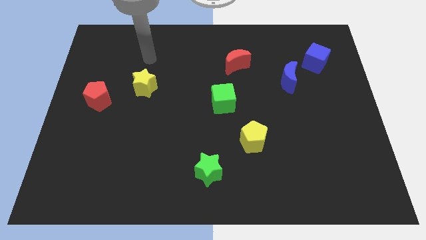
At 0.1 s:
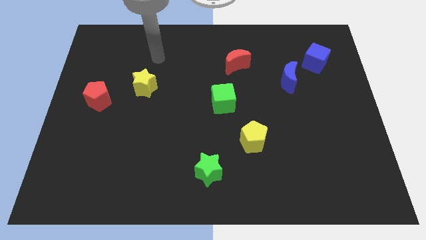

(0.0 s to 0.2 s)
separate the blue moon from the blue cube

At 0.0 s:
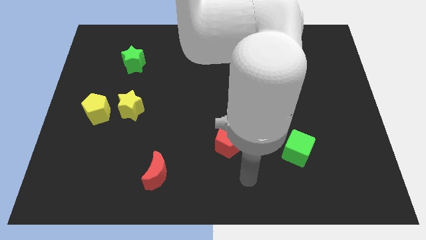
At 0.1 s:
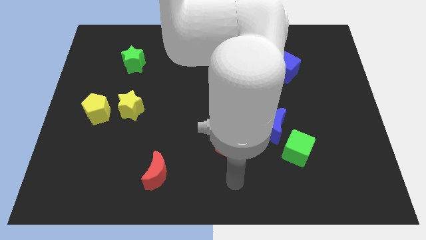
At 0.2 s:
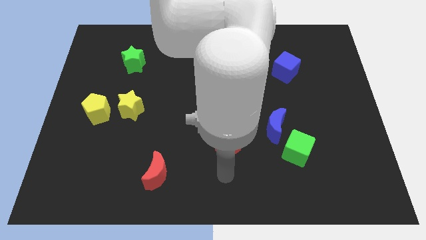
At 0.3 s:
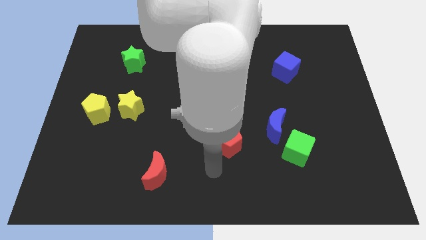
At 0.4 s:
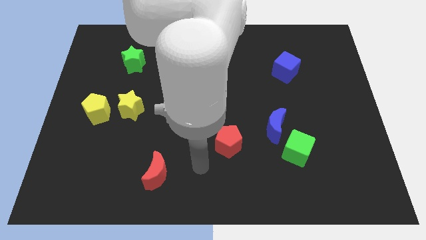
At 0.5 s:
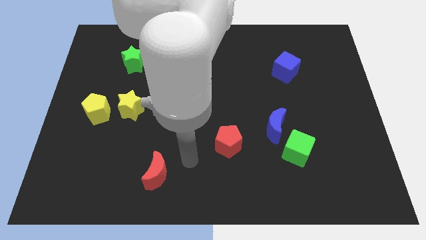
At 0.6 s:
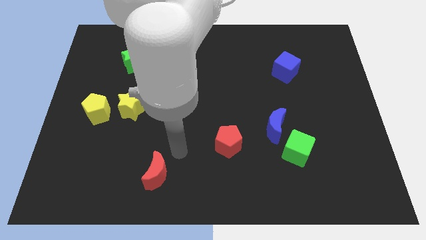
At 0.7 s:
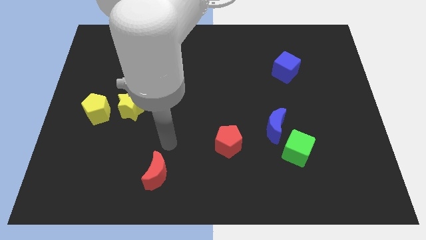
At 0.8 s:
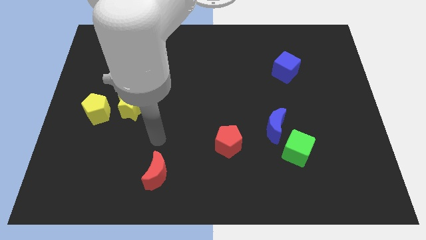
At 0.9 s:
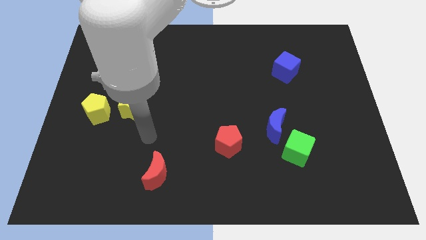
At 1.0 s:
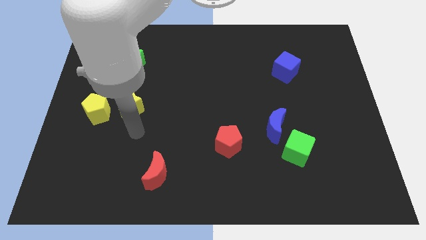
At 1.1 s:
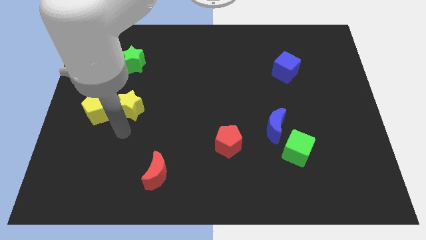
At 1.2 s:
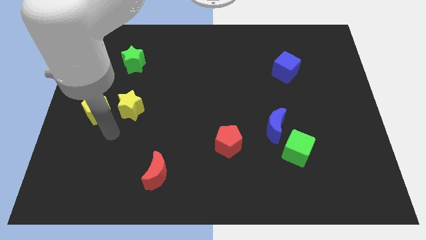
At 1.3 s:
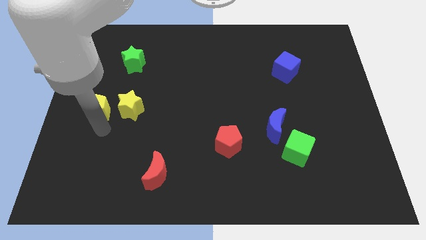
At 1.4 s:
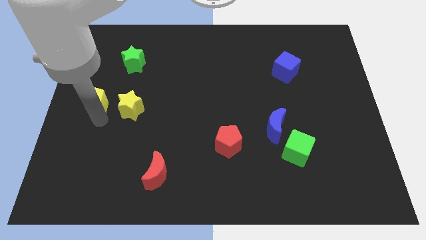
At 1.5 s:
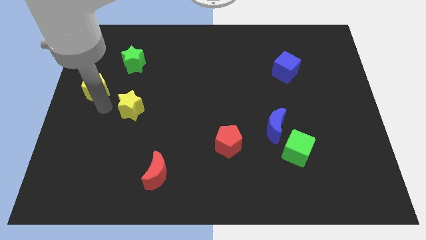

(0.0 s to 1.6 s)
separate the yellow star from the yellow pentagon

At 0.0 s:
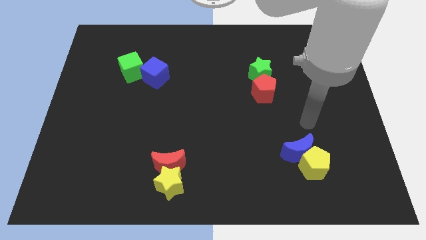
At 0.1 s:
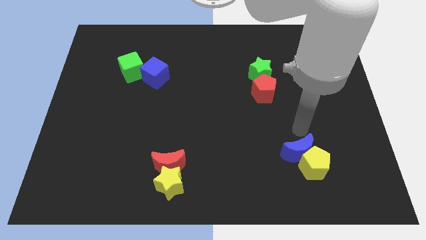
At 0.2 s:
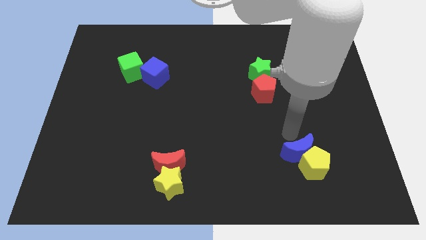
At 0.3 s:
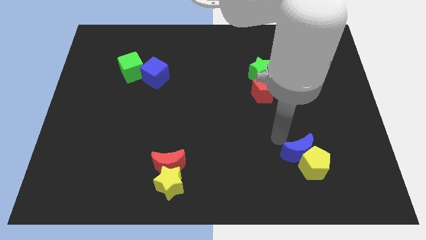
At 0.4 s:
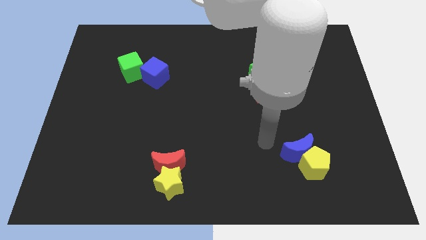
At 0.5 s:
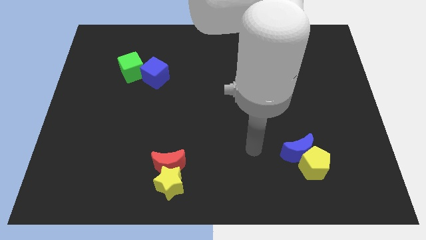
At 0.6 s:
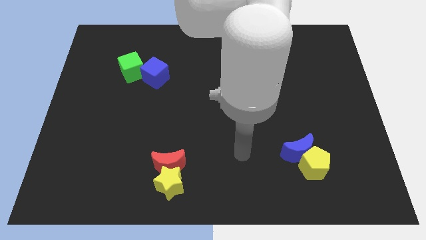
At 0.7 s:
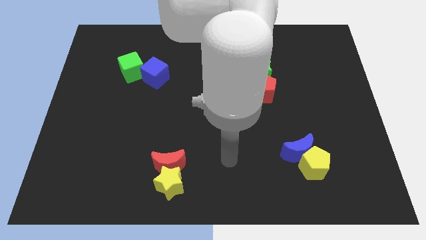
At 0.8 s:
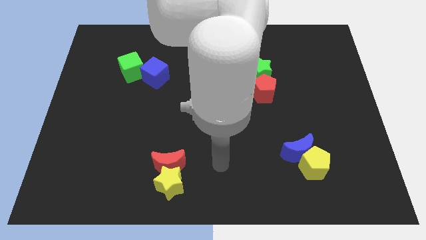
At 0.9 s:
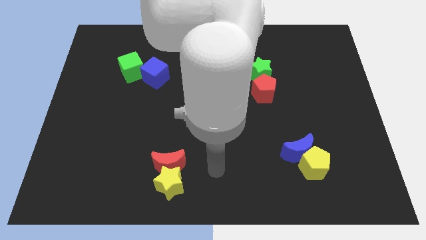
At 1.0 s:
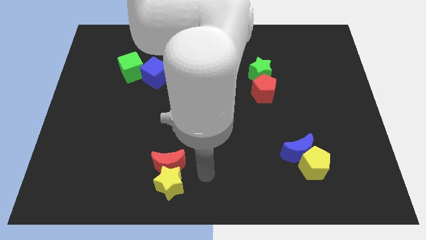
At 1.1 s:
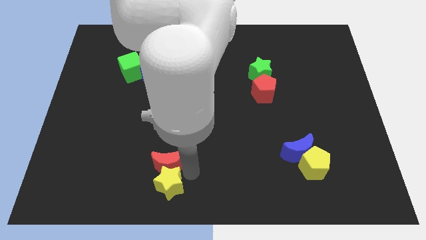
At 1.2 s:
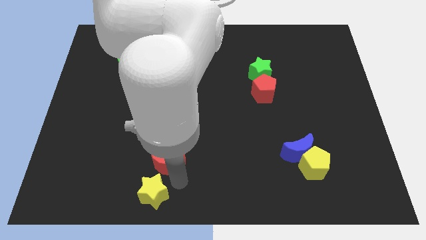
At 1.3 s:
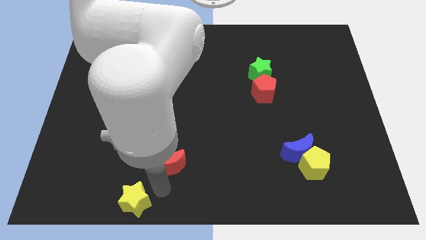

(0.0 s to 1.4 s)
move the red moon away from the yellow star

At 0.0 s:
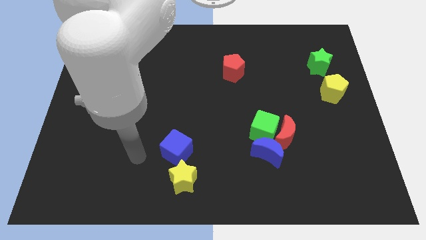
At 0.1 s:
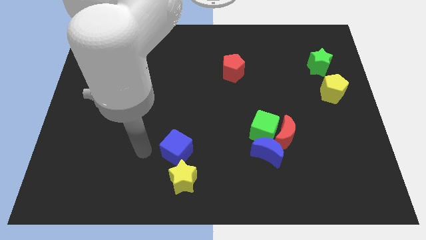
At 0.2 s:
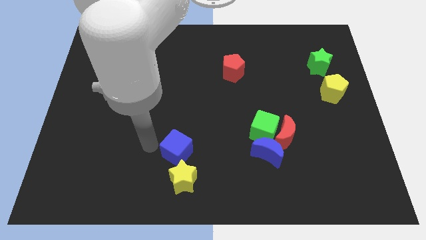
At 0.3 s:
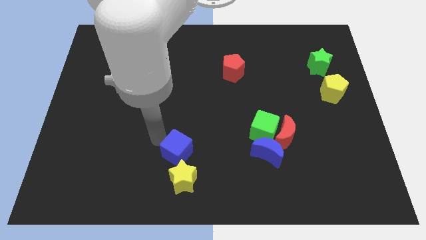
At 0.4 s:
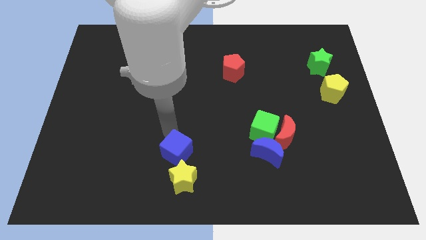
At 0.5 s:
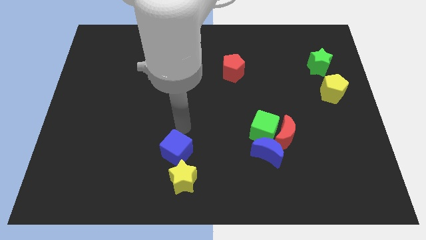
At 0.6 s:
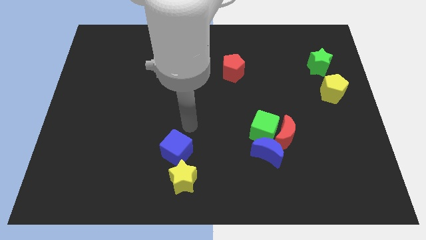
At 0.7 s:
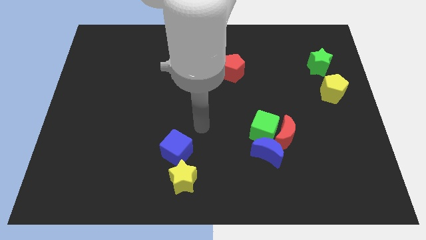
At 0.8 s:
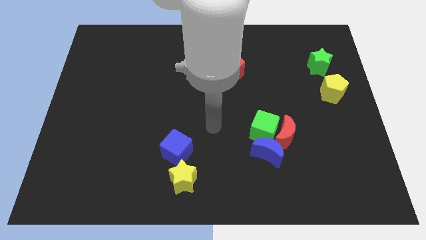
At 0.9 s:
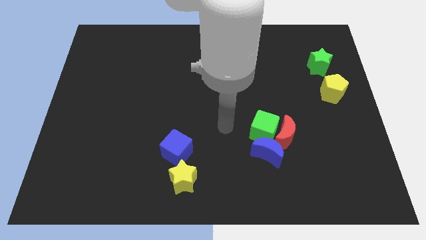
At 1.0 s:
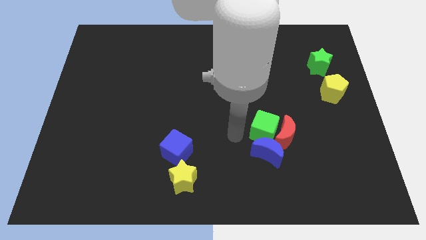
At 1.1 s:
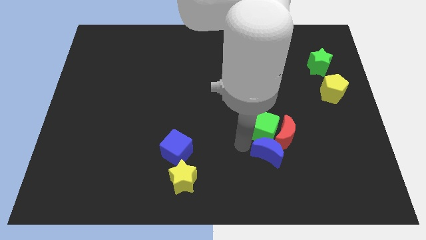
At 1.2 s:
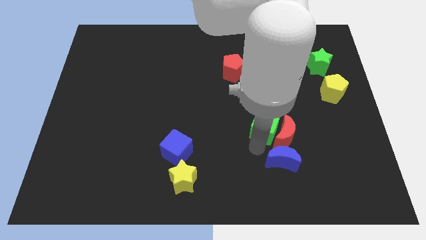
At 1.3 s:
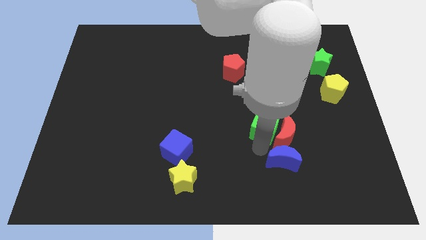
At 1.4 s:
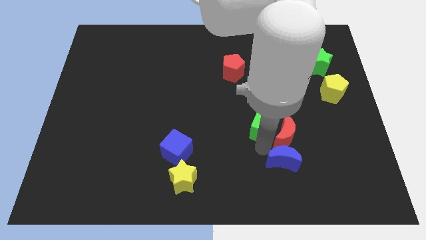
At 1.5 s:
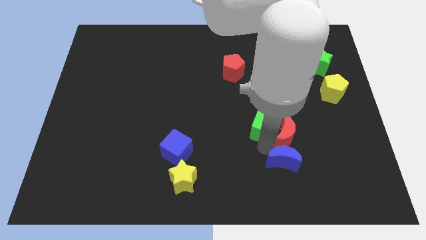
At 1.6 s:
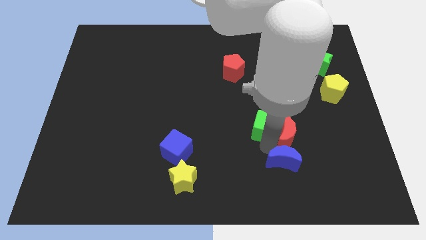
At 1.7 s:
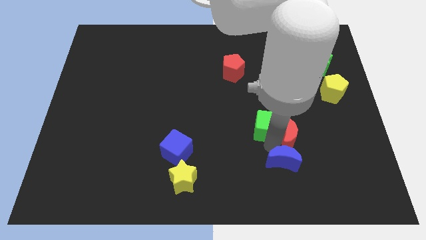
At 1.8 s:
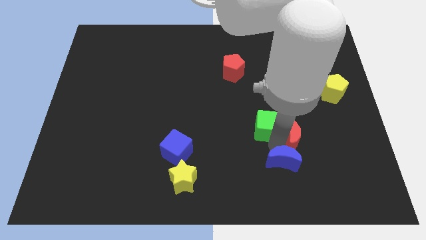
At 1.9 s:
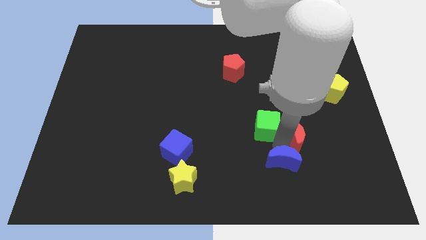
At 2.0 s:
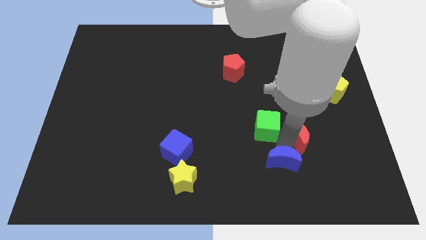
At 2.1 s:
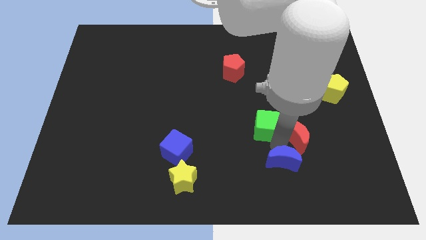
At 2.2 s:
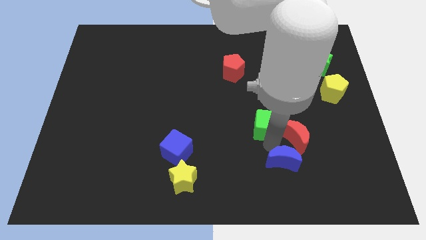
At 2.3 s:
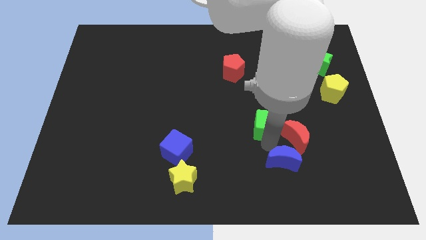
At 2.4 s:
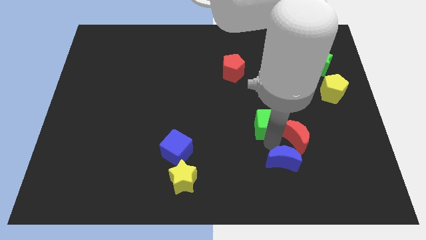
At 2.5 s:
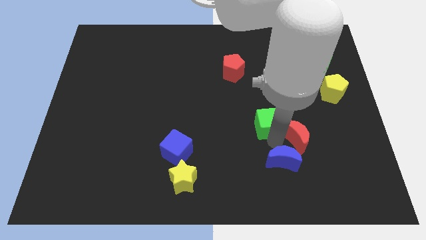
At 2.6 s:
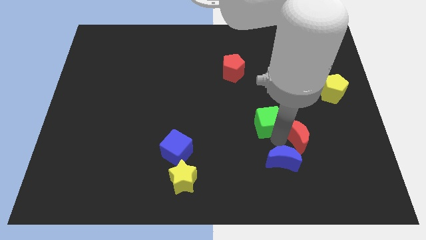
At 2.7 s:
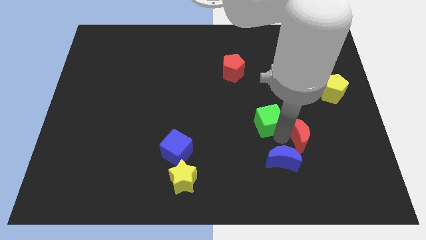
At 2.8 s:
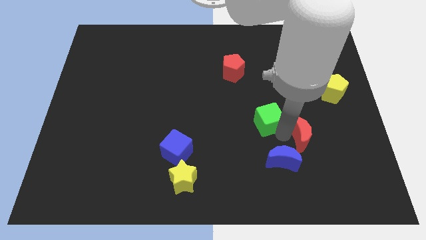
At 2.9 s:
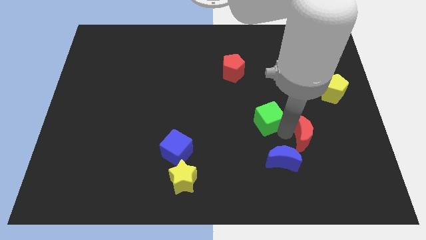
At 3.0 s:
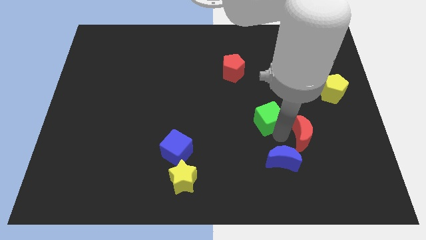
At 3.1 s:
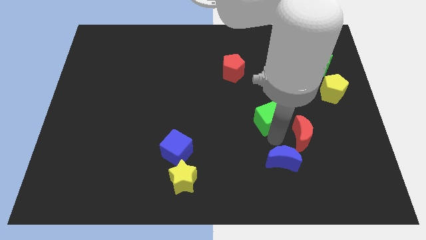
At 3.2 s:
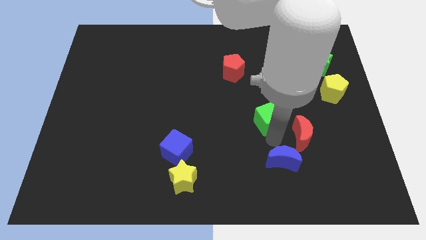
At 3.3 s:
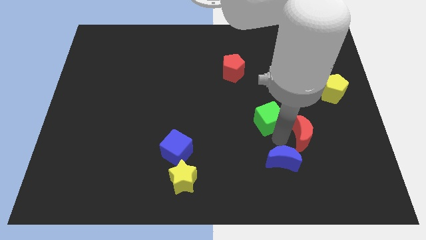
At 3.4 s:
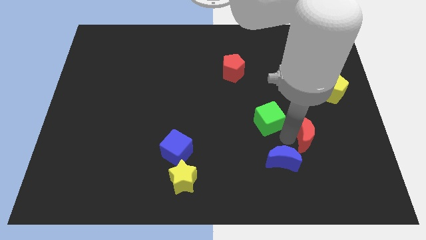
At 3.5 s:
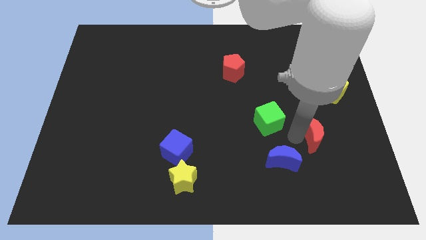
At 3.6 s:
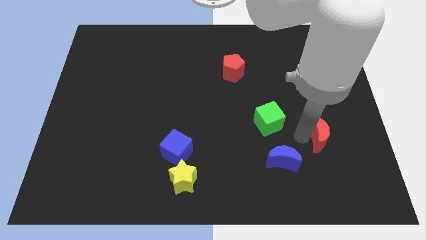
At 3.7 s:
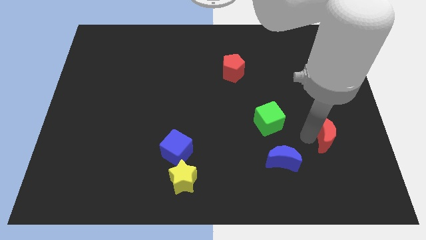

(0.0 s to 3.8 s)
pull the red moon apart from the green cube and blue moon

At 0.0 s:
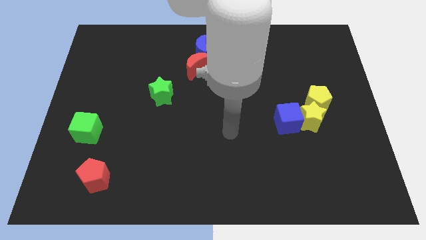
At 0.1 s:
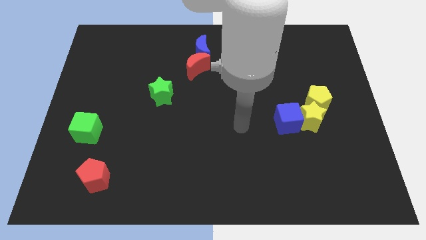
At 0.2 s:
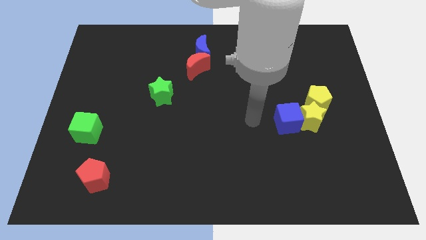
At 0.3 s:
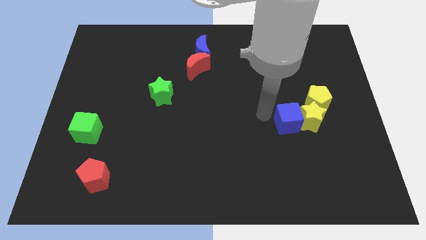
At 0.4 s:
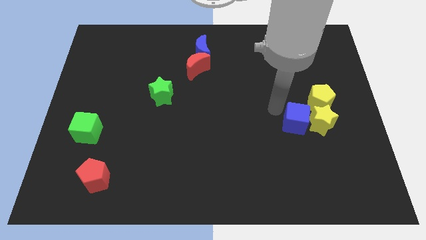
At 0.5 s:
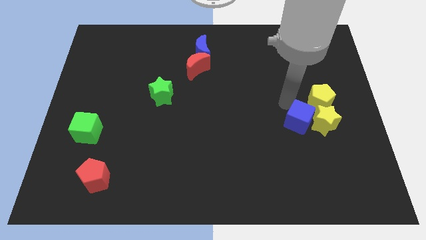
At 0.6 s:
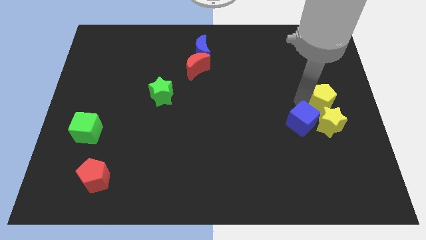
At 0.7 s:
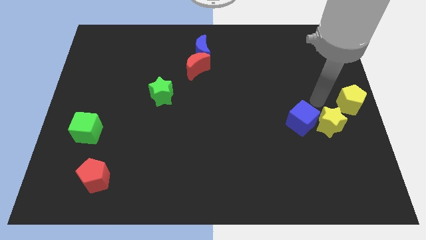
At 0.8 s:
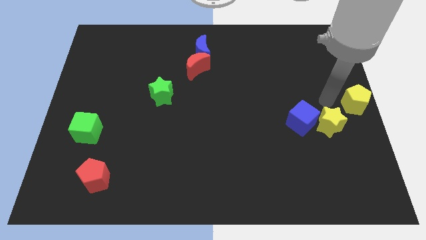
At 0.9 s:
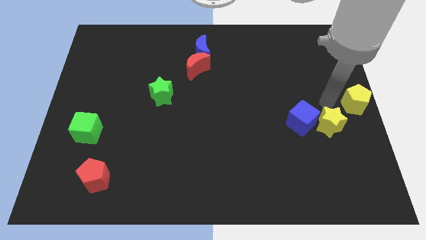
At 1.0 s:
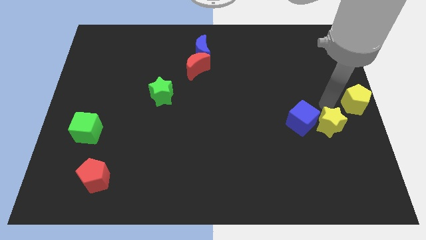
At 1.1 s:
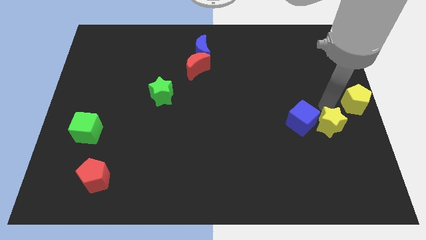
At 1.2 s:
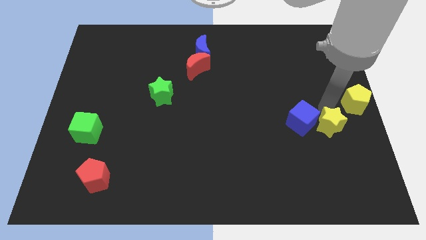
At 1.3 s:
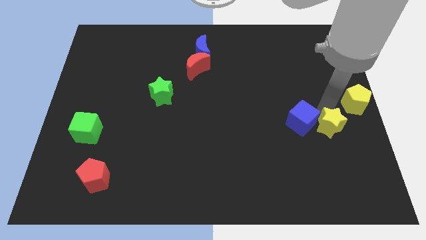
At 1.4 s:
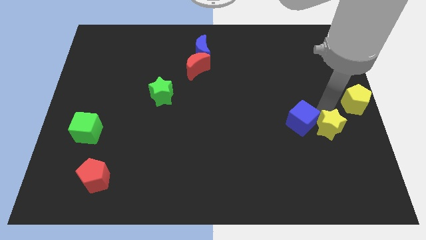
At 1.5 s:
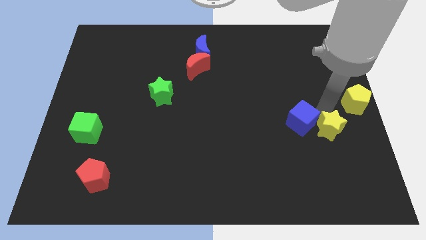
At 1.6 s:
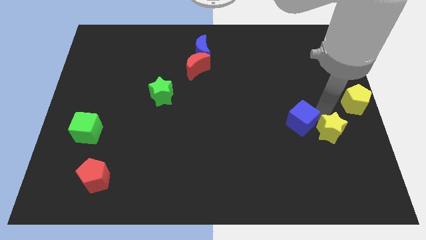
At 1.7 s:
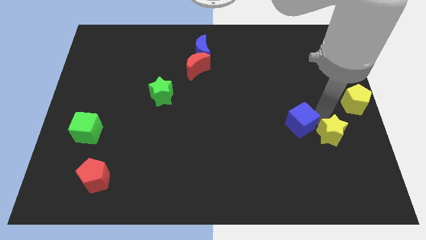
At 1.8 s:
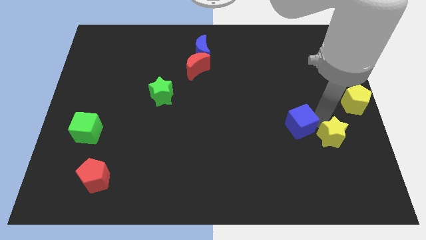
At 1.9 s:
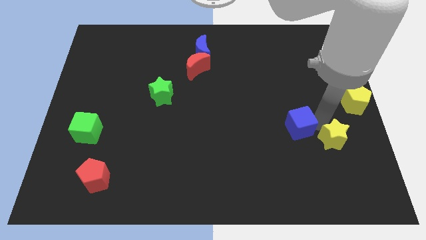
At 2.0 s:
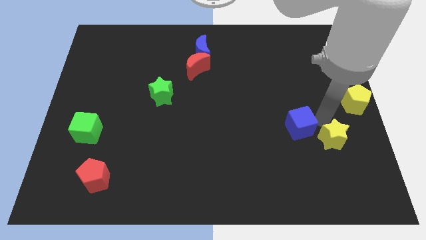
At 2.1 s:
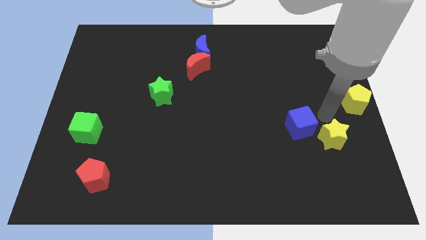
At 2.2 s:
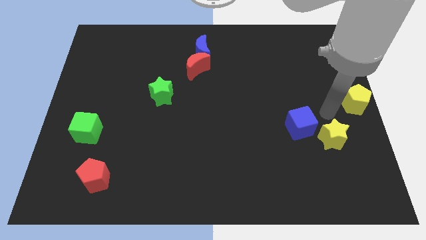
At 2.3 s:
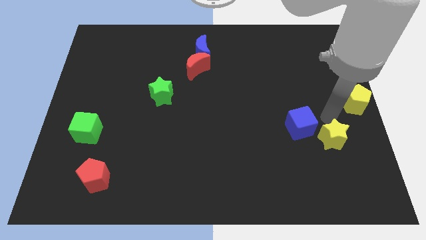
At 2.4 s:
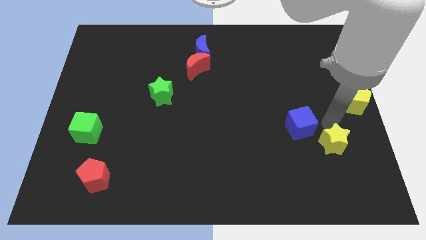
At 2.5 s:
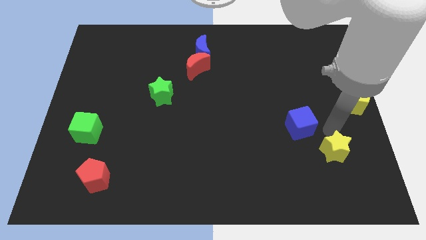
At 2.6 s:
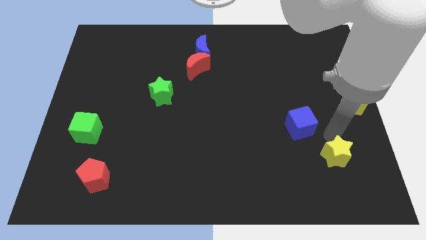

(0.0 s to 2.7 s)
separate the yellow star from the yellow pentagon and blue cube
